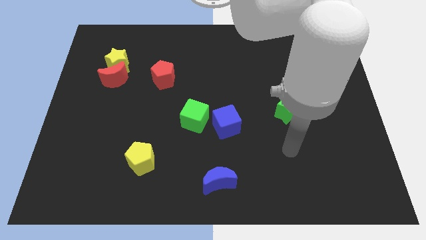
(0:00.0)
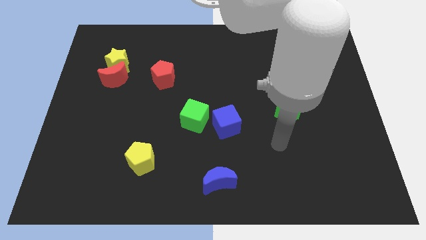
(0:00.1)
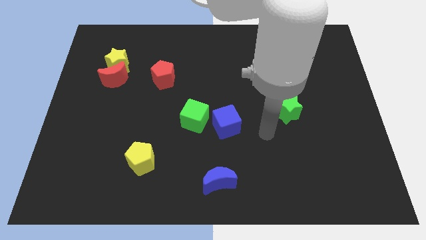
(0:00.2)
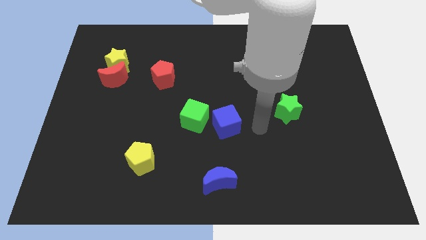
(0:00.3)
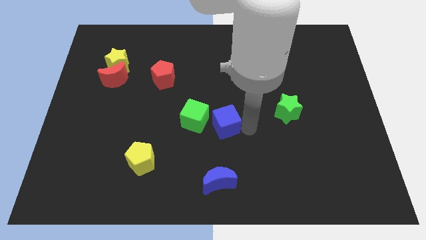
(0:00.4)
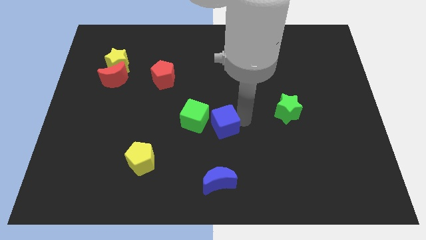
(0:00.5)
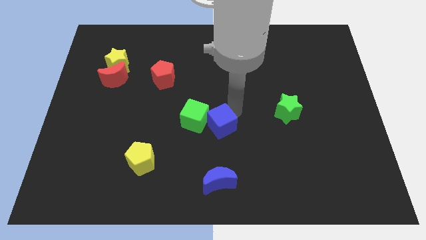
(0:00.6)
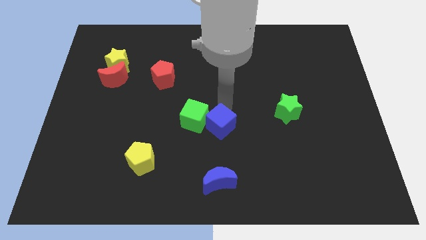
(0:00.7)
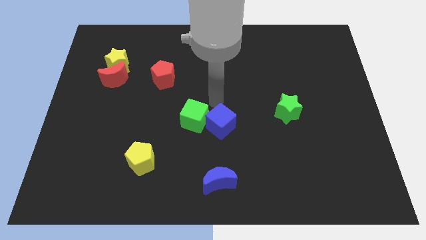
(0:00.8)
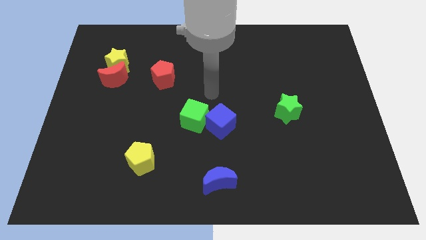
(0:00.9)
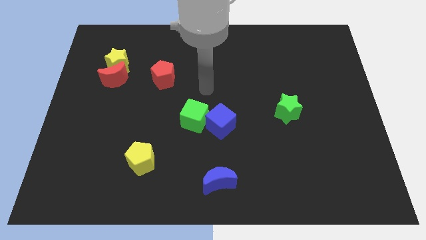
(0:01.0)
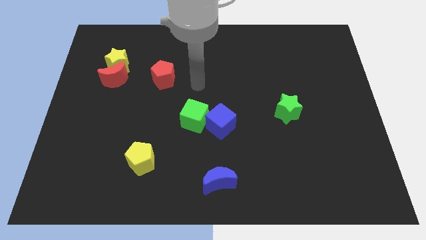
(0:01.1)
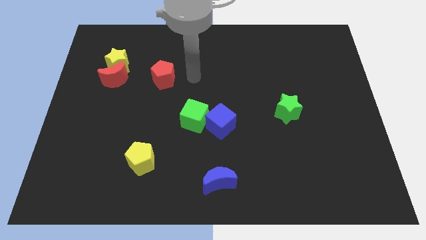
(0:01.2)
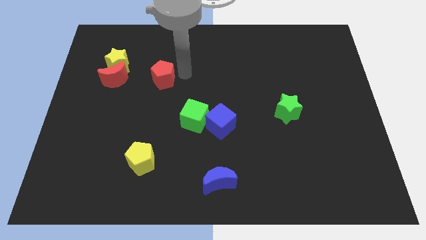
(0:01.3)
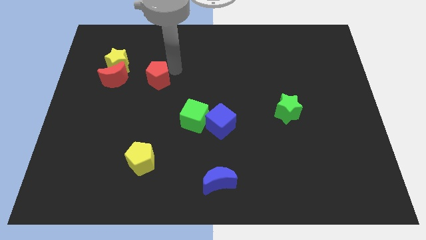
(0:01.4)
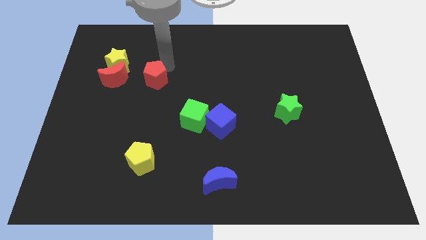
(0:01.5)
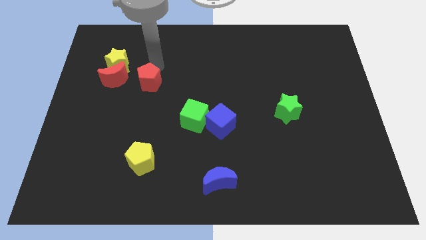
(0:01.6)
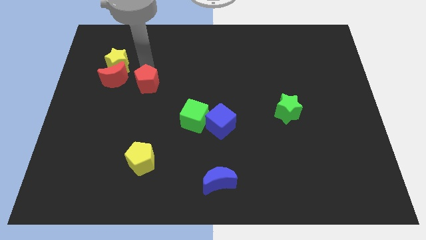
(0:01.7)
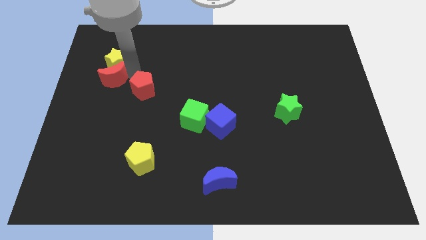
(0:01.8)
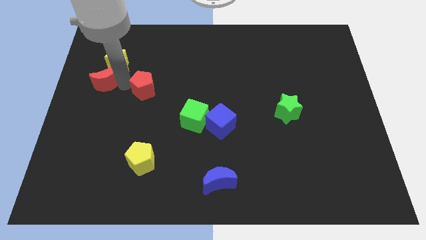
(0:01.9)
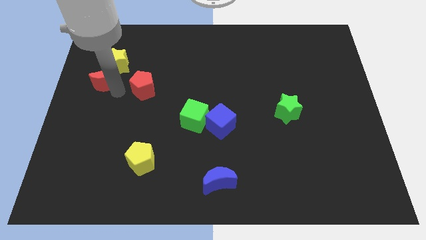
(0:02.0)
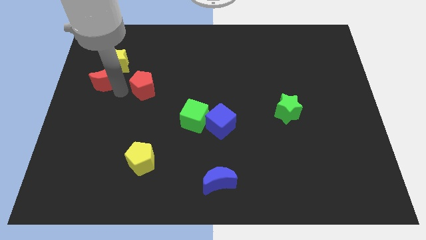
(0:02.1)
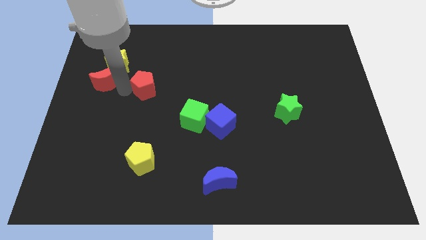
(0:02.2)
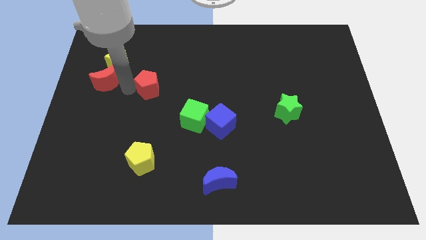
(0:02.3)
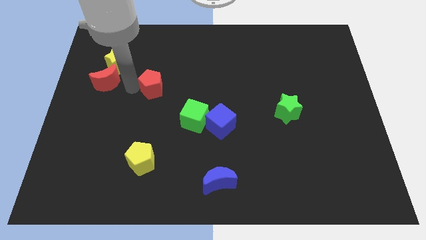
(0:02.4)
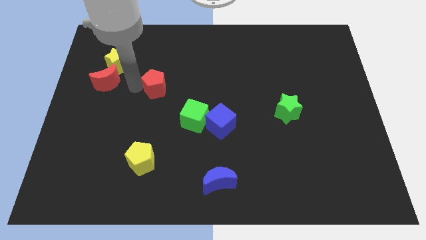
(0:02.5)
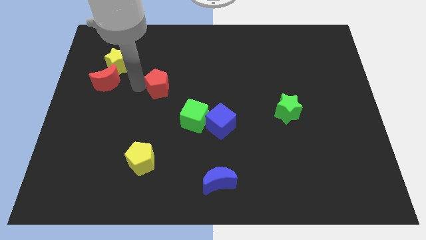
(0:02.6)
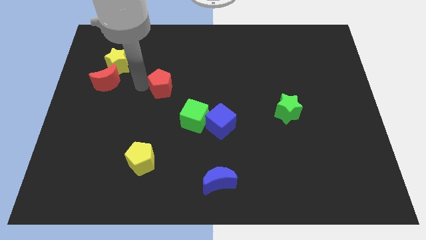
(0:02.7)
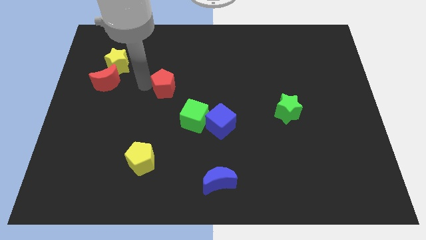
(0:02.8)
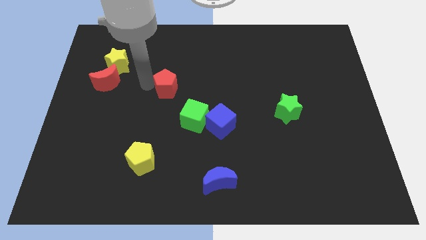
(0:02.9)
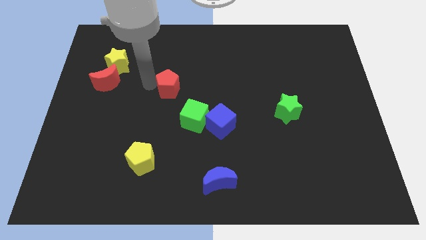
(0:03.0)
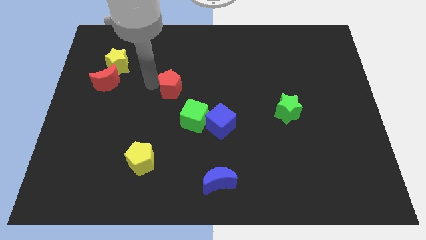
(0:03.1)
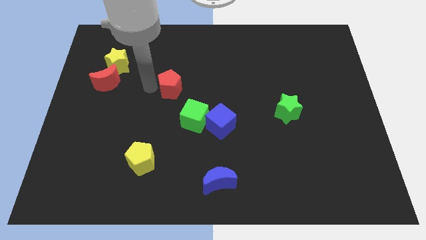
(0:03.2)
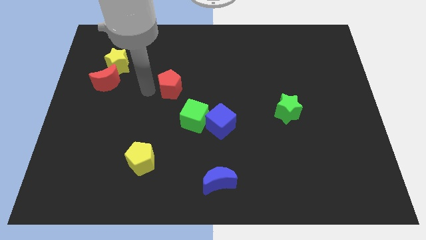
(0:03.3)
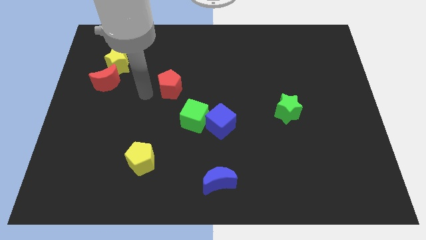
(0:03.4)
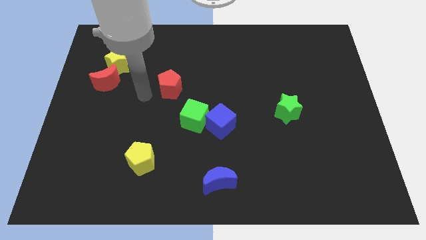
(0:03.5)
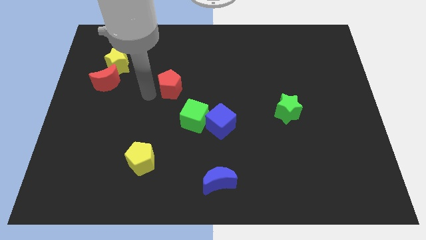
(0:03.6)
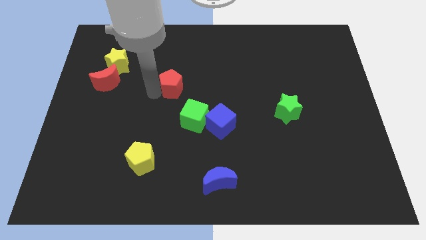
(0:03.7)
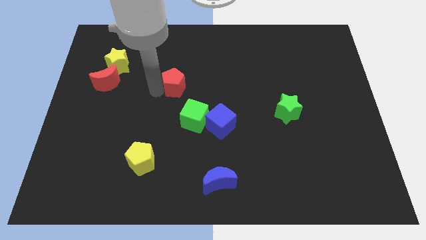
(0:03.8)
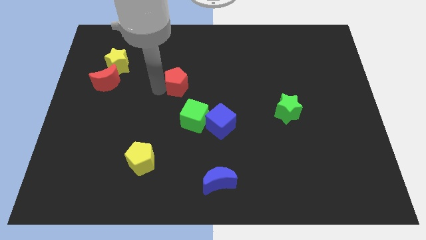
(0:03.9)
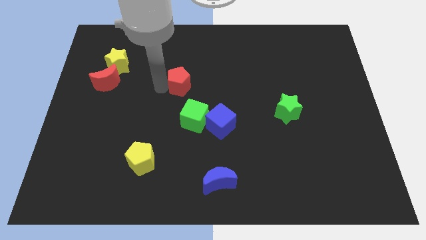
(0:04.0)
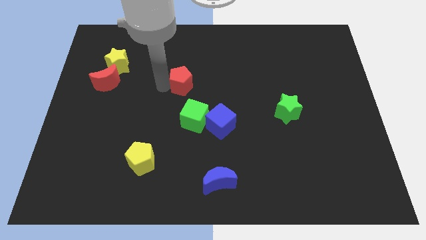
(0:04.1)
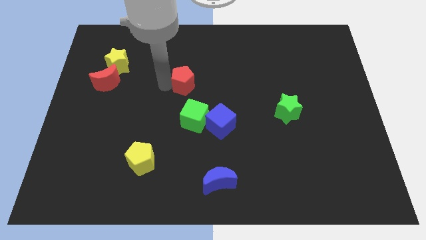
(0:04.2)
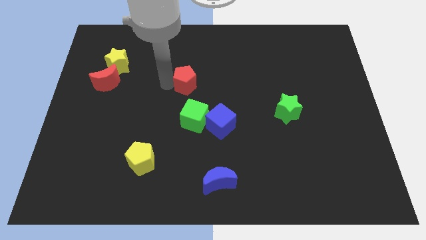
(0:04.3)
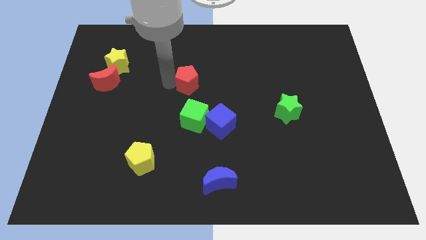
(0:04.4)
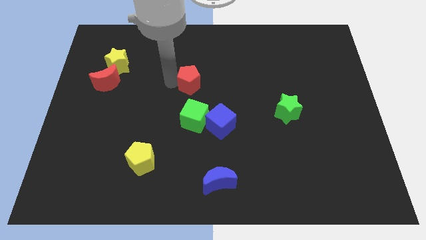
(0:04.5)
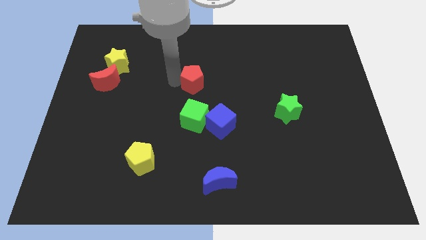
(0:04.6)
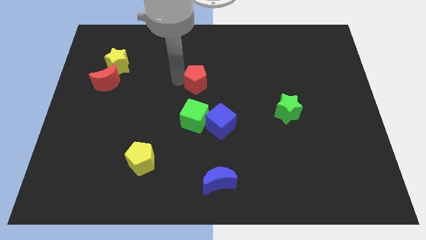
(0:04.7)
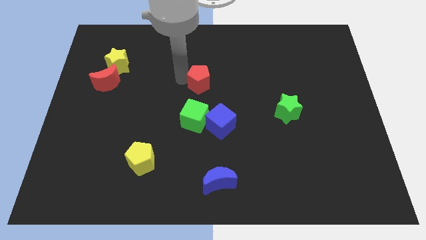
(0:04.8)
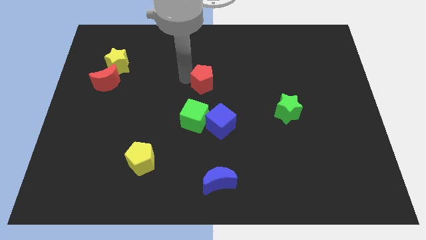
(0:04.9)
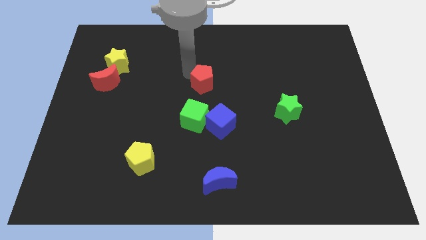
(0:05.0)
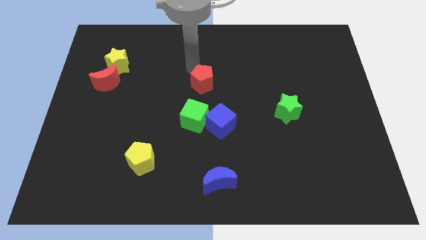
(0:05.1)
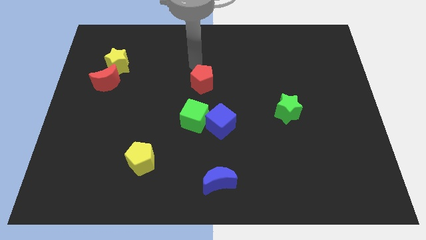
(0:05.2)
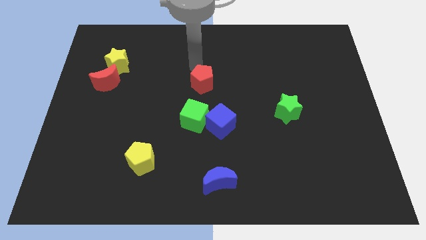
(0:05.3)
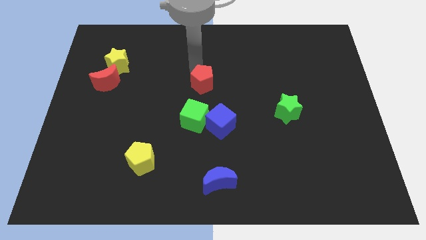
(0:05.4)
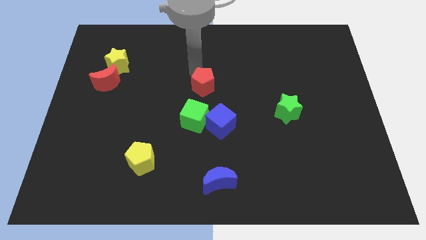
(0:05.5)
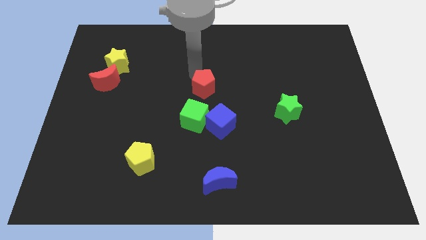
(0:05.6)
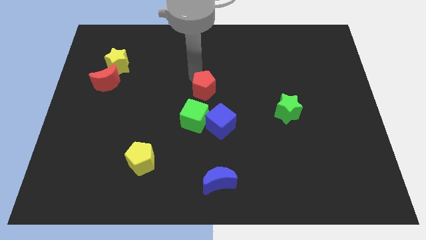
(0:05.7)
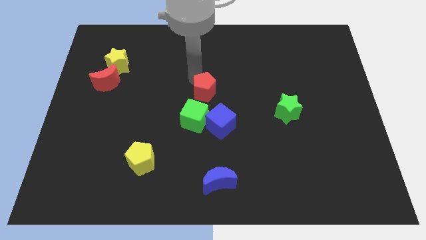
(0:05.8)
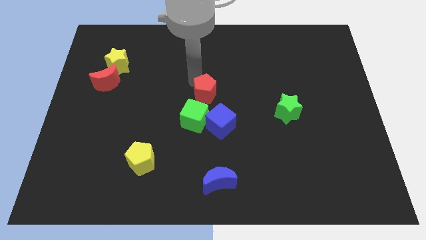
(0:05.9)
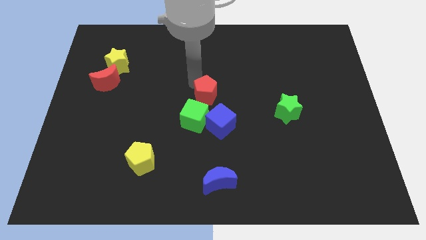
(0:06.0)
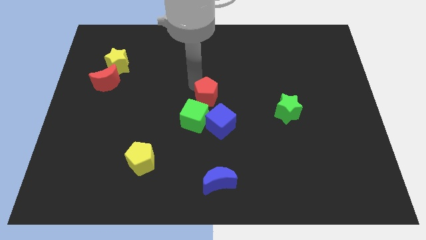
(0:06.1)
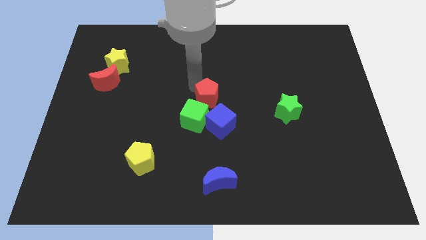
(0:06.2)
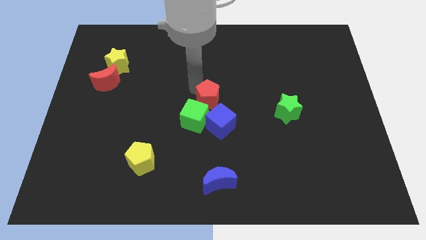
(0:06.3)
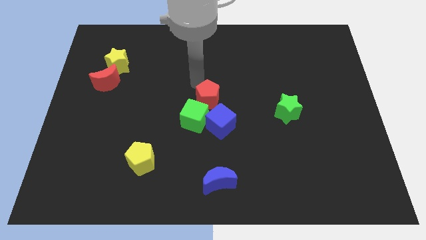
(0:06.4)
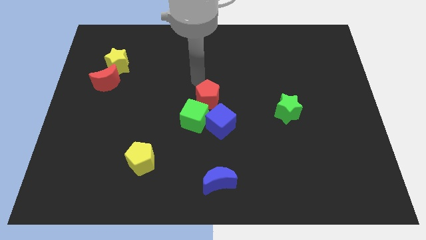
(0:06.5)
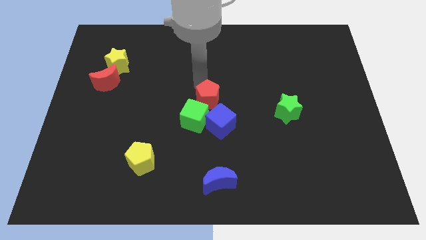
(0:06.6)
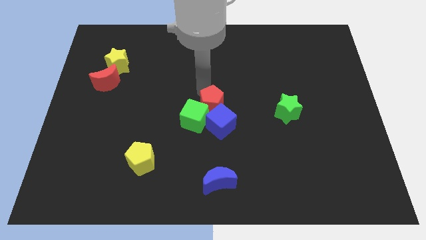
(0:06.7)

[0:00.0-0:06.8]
put the red pentagon next to the blue cube
